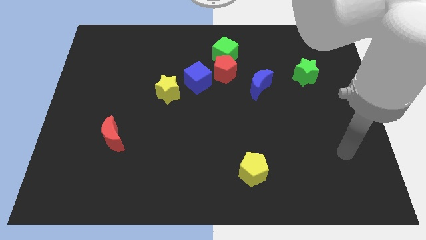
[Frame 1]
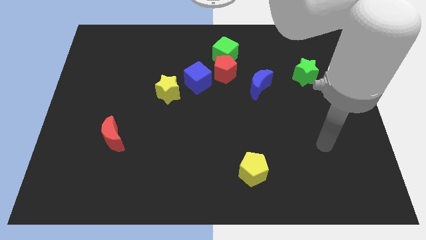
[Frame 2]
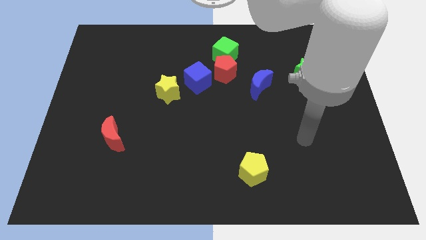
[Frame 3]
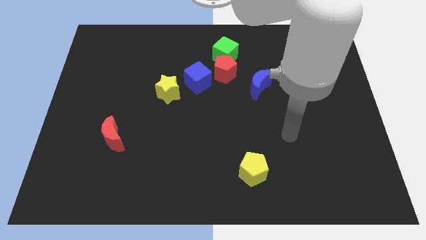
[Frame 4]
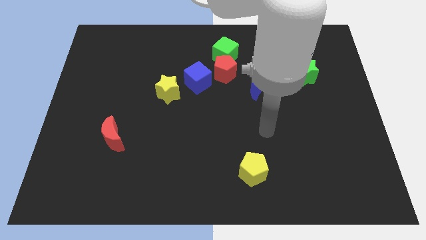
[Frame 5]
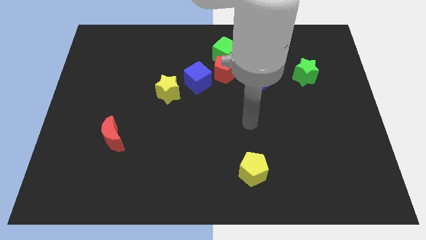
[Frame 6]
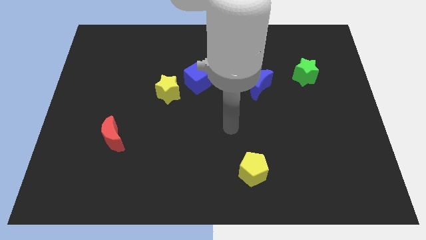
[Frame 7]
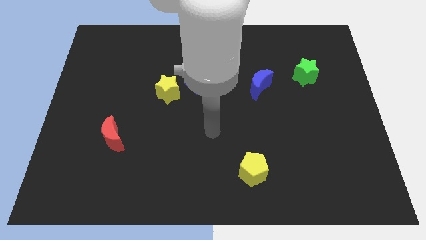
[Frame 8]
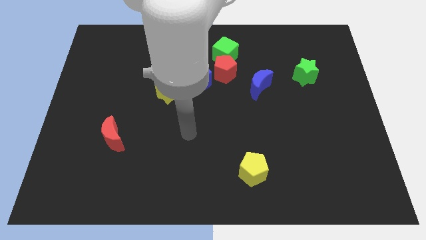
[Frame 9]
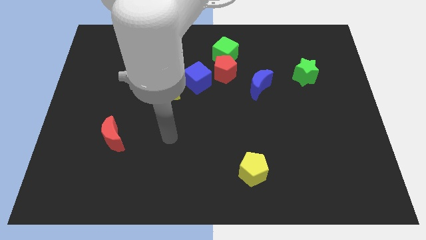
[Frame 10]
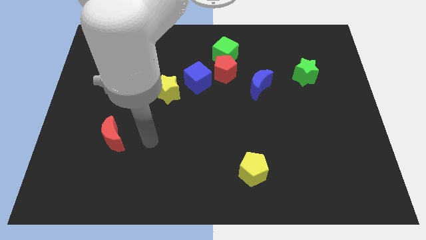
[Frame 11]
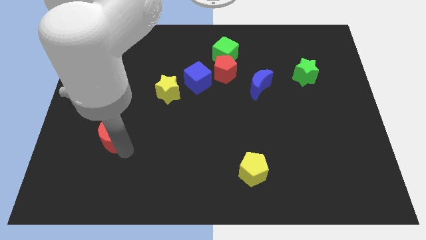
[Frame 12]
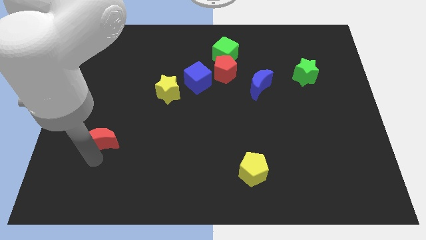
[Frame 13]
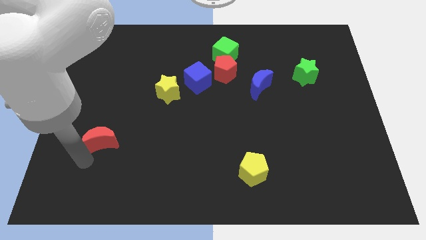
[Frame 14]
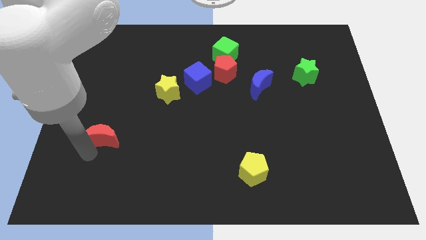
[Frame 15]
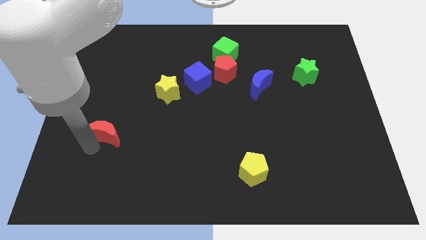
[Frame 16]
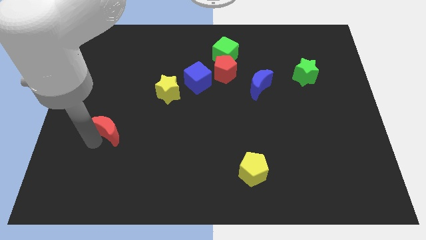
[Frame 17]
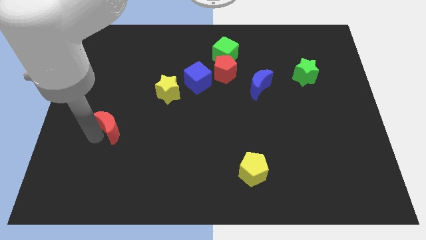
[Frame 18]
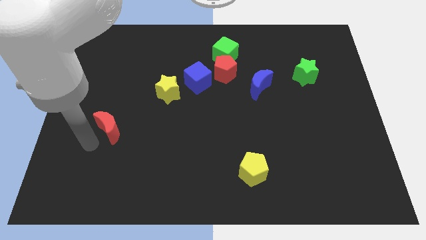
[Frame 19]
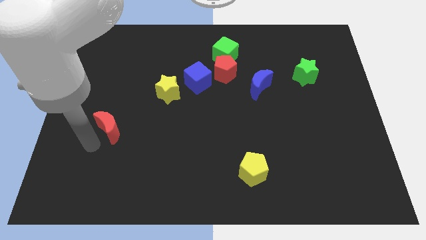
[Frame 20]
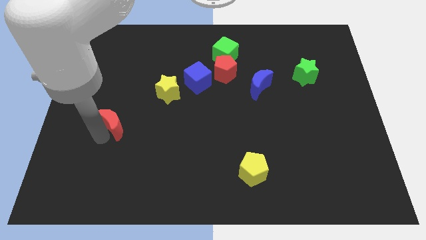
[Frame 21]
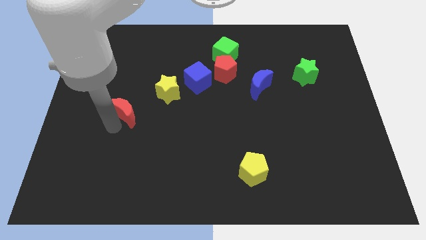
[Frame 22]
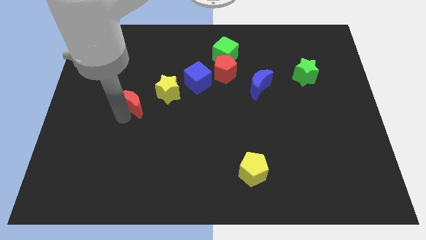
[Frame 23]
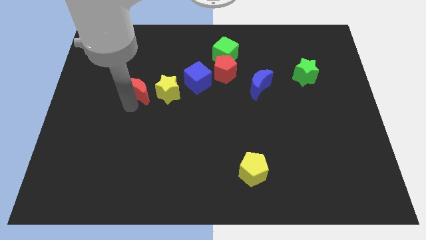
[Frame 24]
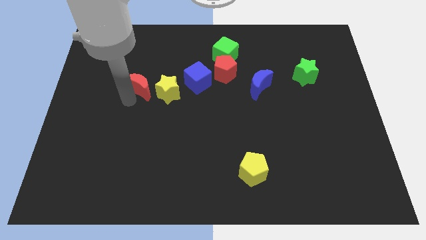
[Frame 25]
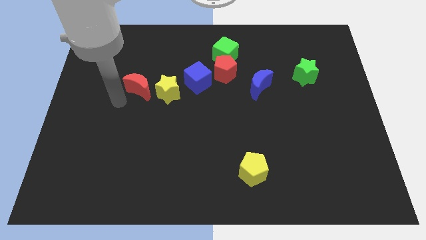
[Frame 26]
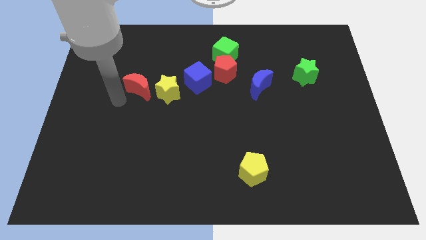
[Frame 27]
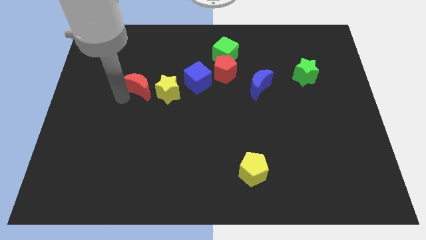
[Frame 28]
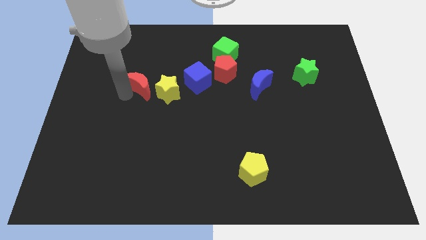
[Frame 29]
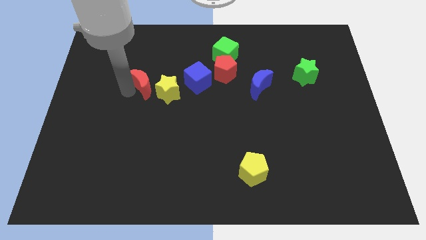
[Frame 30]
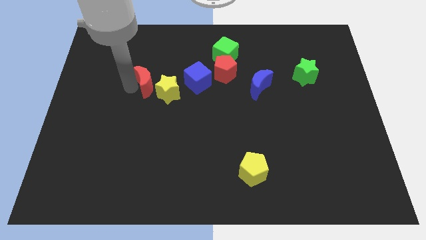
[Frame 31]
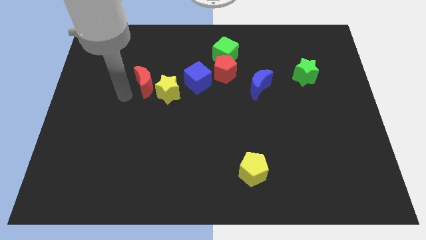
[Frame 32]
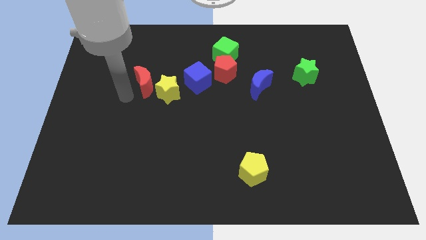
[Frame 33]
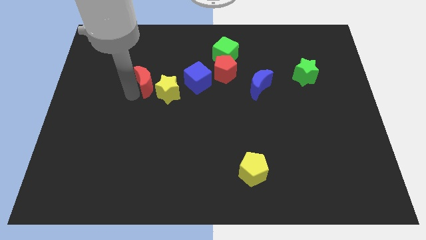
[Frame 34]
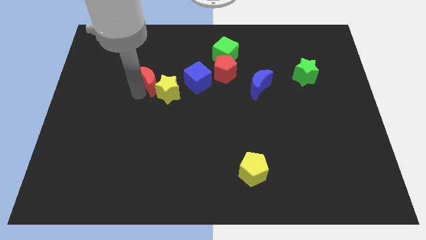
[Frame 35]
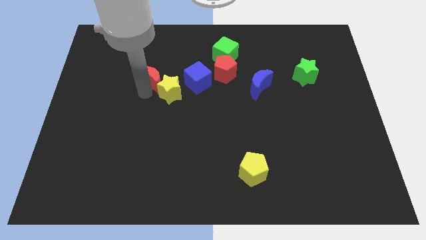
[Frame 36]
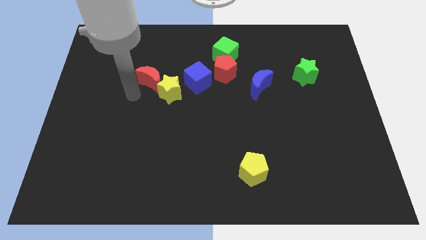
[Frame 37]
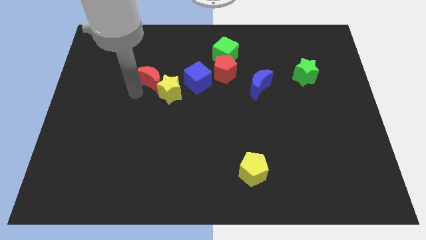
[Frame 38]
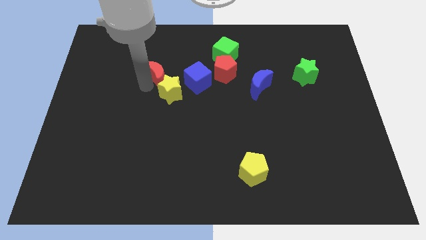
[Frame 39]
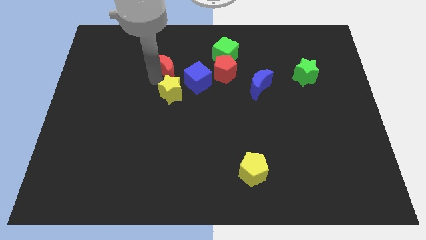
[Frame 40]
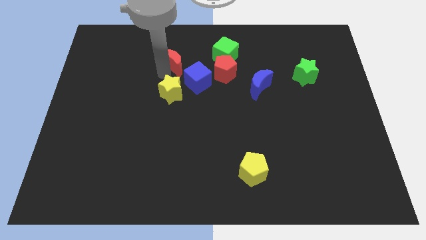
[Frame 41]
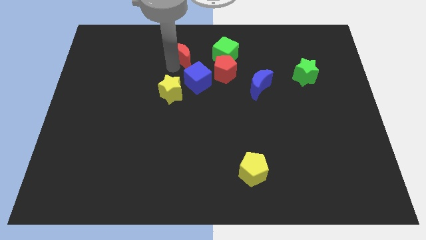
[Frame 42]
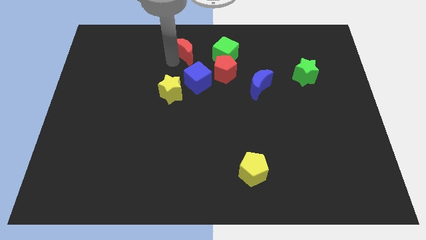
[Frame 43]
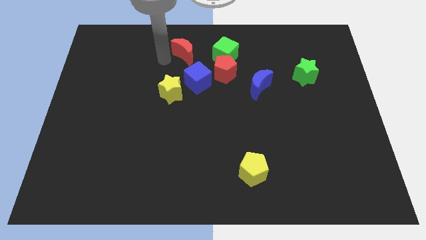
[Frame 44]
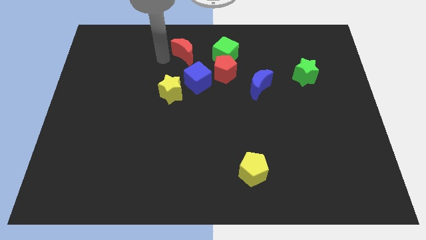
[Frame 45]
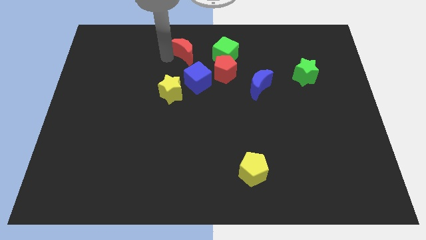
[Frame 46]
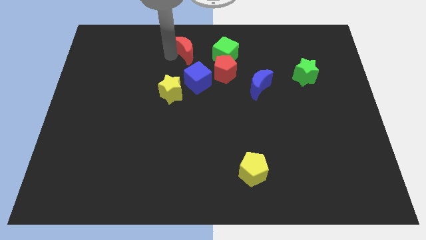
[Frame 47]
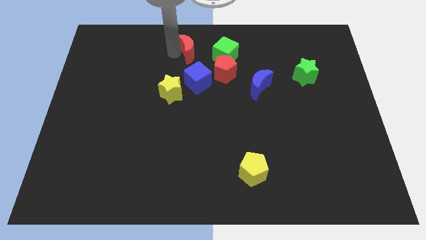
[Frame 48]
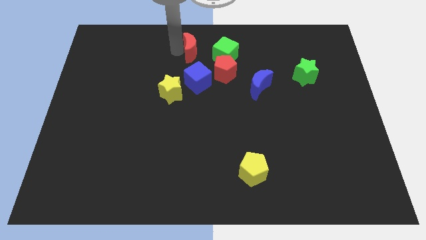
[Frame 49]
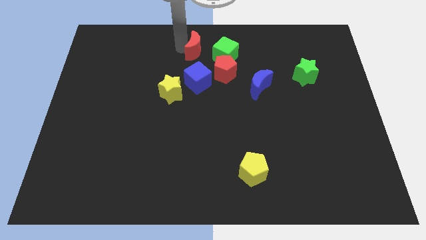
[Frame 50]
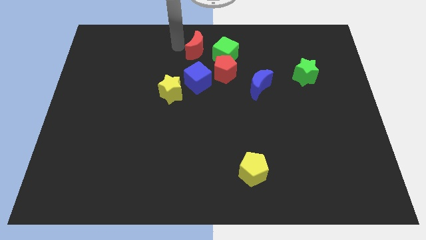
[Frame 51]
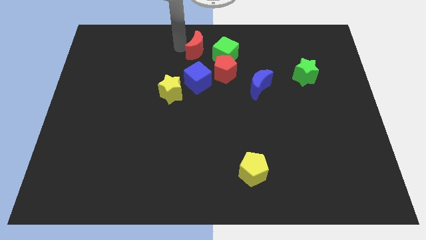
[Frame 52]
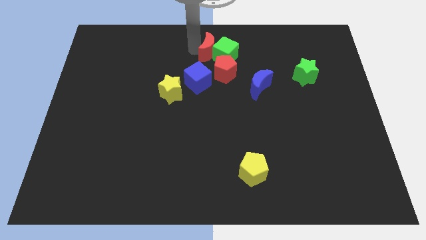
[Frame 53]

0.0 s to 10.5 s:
put the red moon towards the green cube

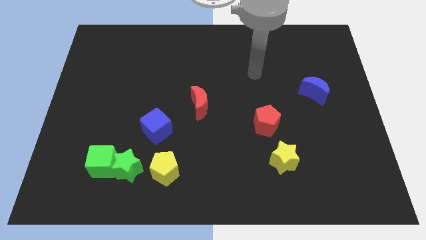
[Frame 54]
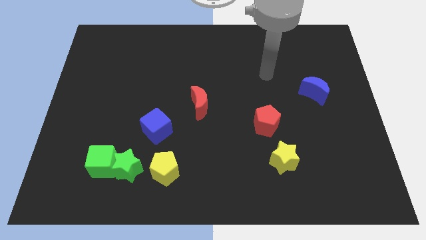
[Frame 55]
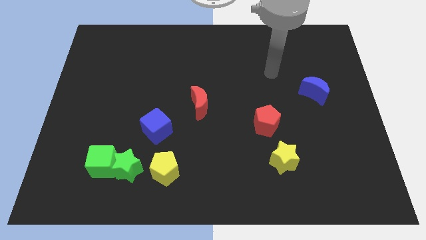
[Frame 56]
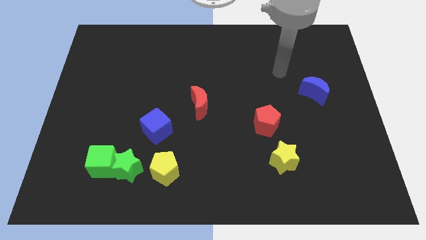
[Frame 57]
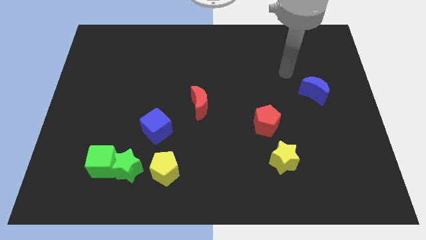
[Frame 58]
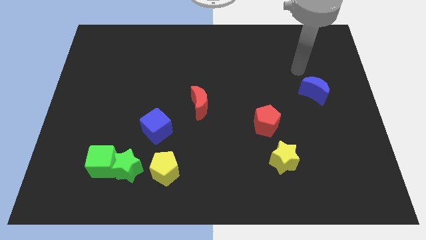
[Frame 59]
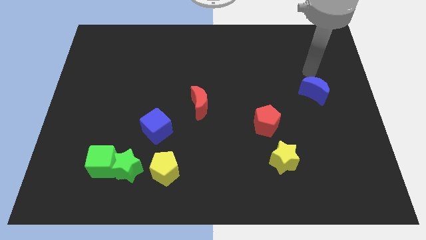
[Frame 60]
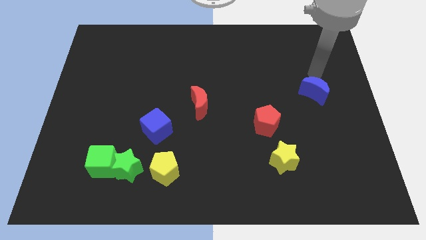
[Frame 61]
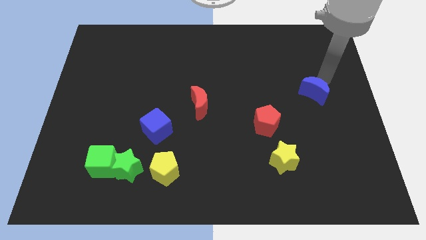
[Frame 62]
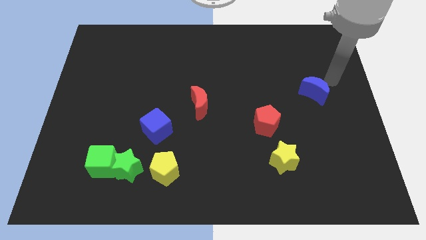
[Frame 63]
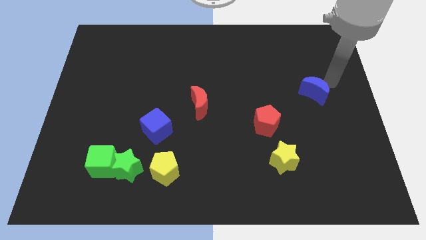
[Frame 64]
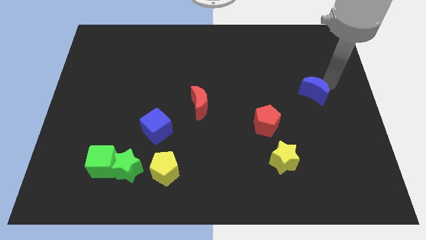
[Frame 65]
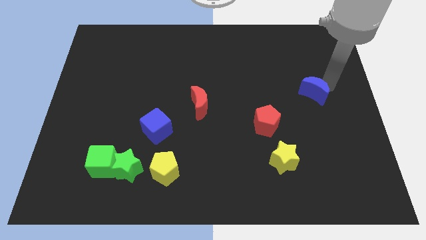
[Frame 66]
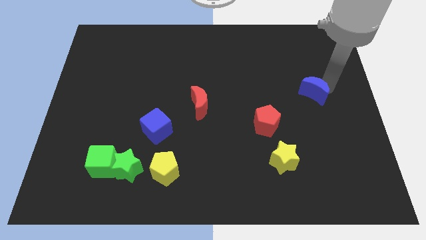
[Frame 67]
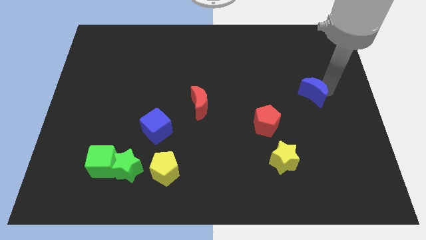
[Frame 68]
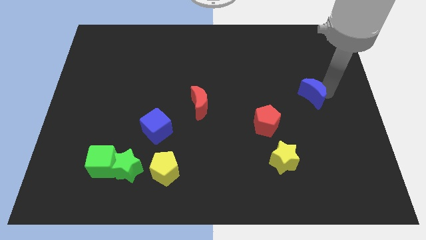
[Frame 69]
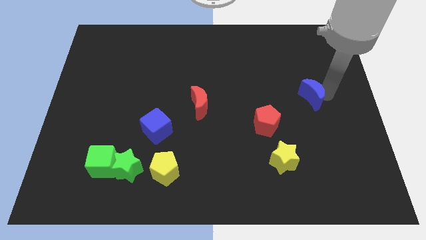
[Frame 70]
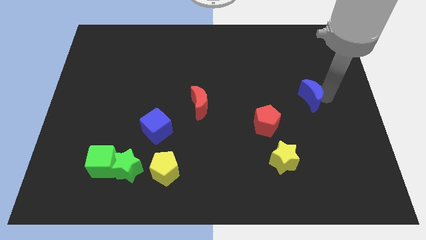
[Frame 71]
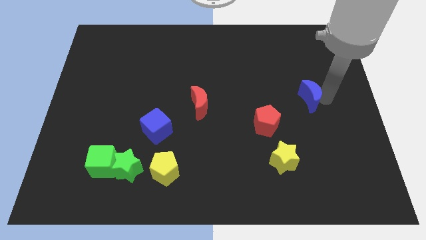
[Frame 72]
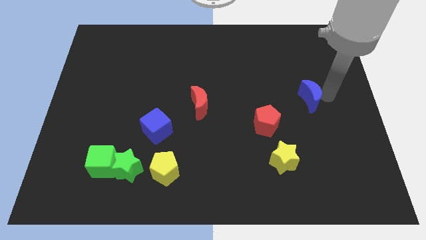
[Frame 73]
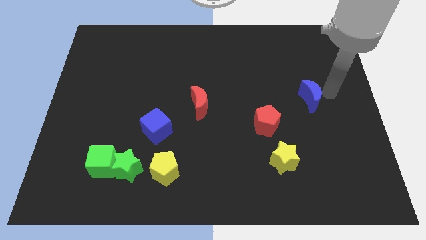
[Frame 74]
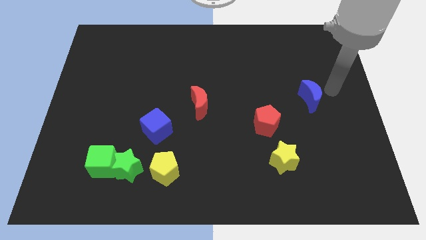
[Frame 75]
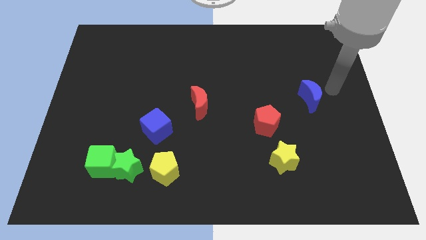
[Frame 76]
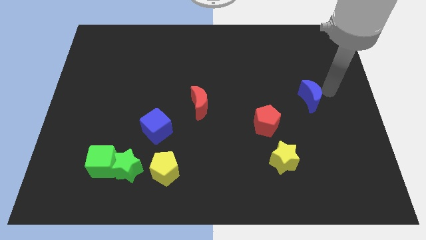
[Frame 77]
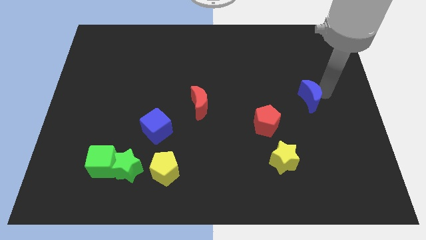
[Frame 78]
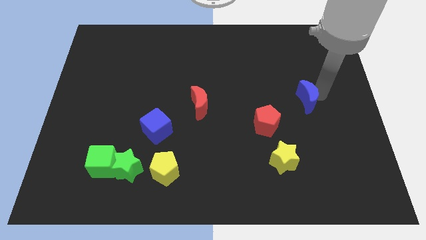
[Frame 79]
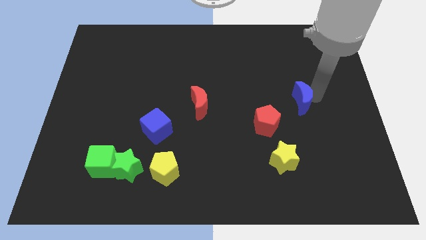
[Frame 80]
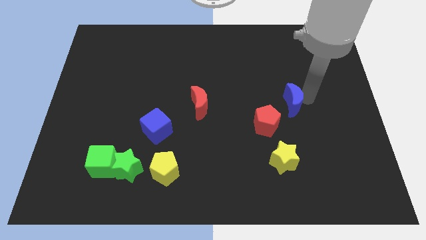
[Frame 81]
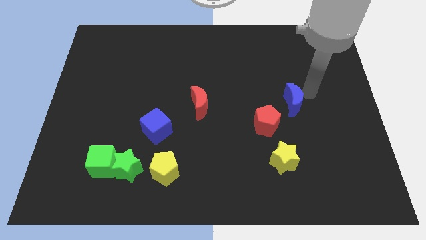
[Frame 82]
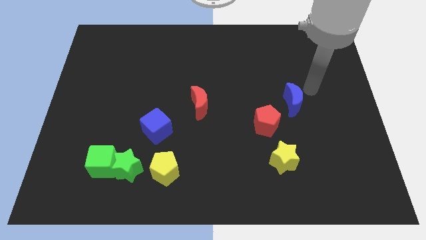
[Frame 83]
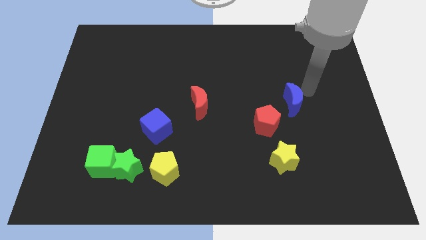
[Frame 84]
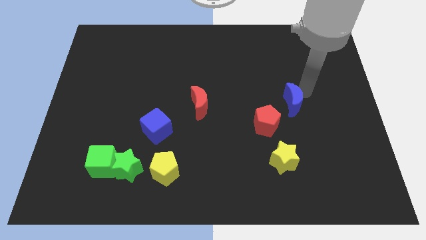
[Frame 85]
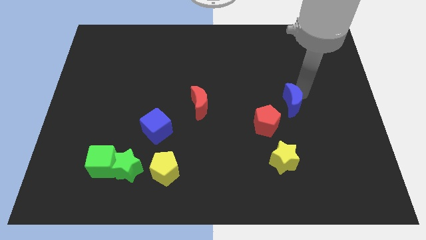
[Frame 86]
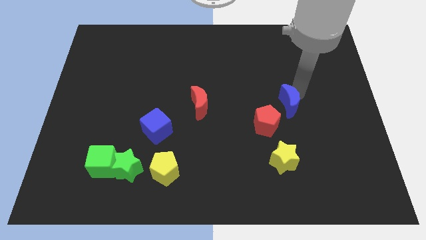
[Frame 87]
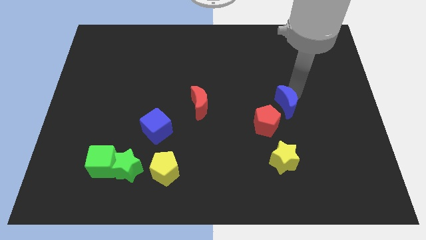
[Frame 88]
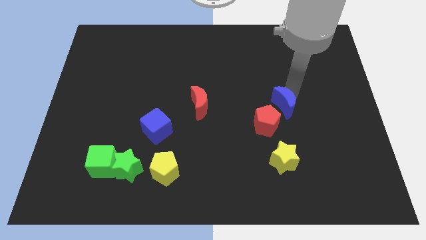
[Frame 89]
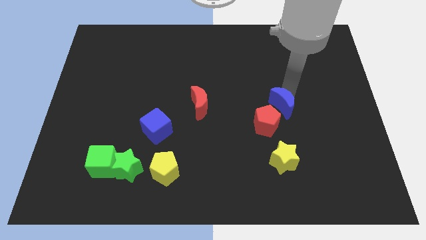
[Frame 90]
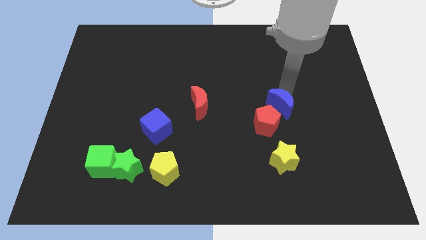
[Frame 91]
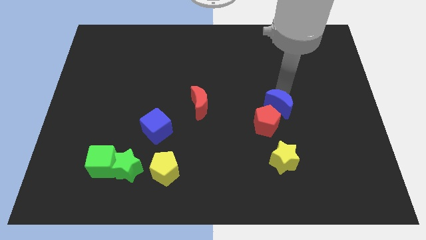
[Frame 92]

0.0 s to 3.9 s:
put the blue moon to the red pentagon
